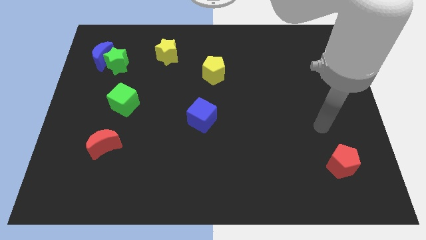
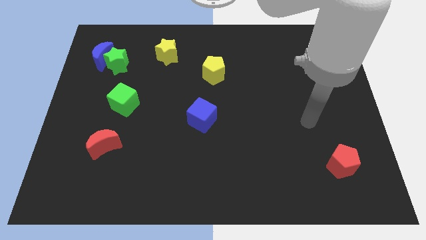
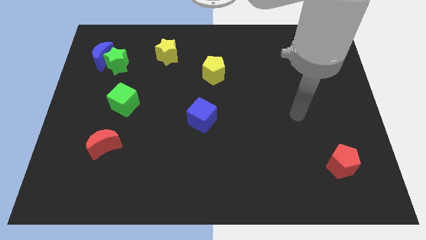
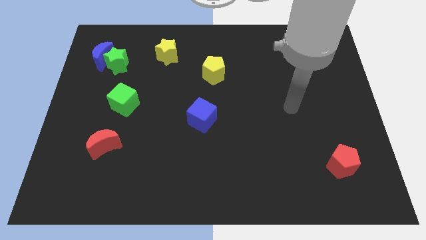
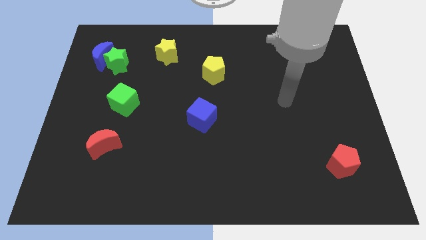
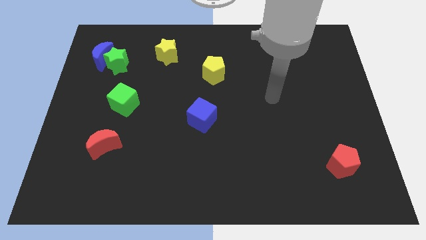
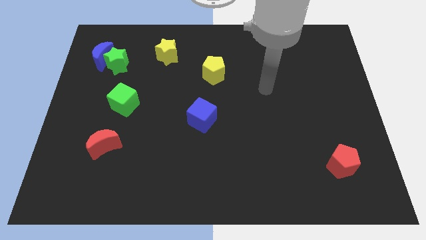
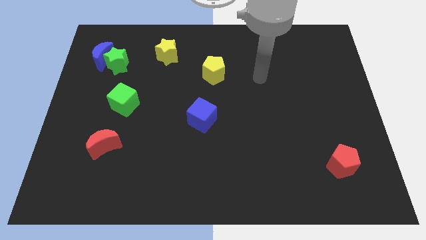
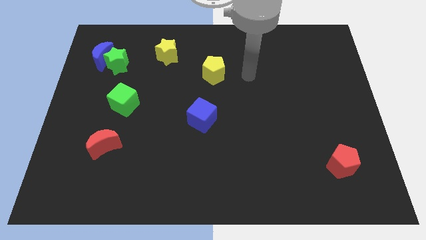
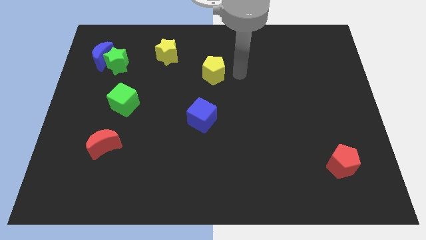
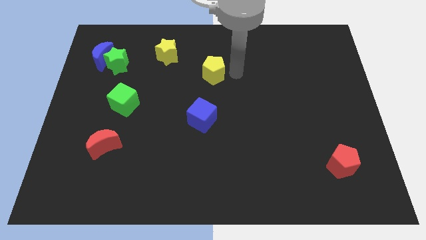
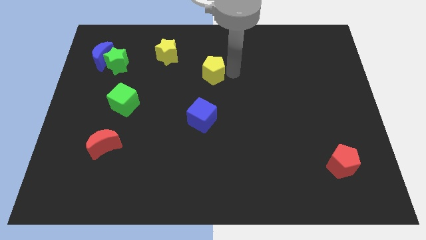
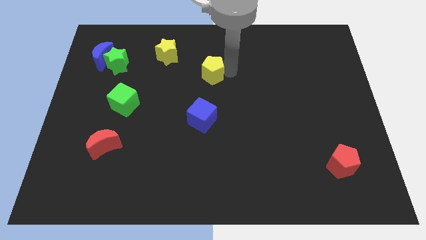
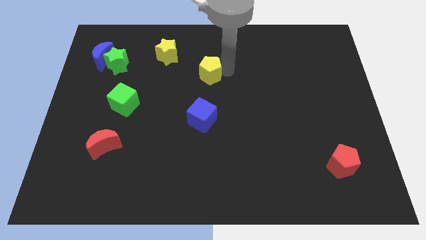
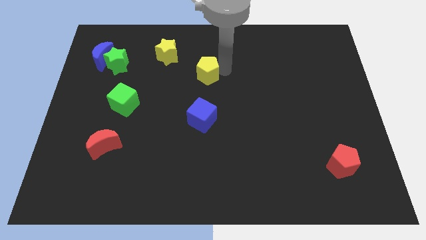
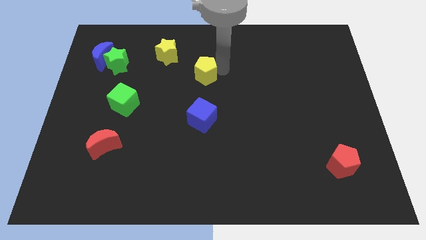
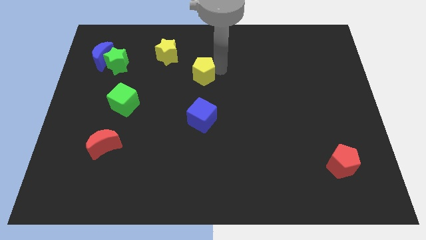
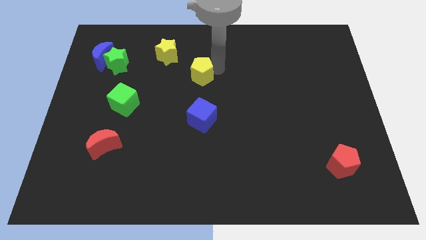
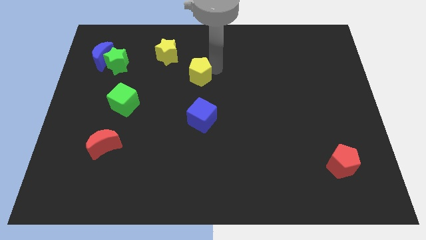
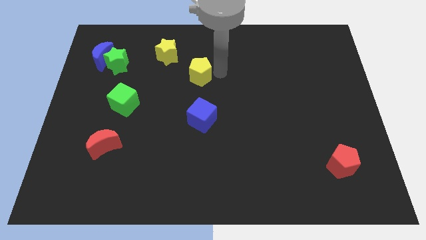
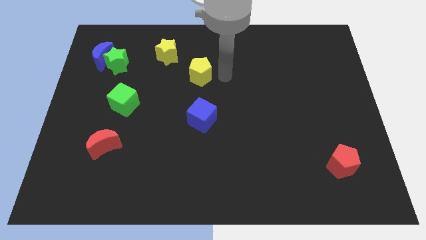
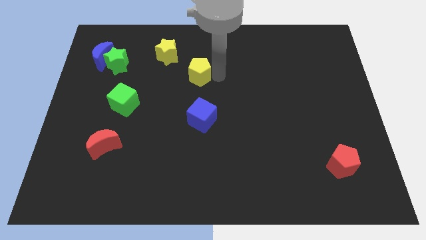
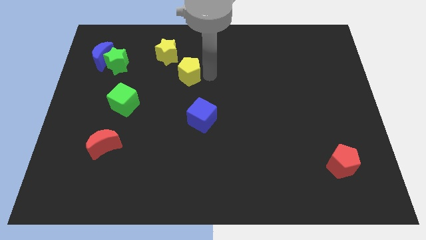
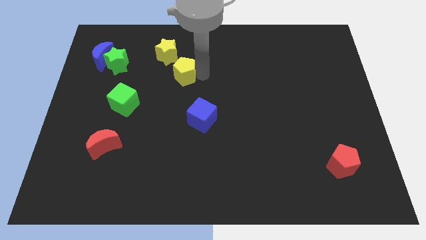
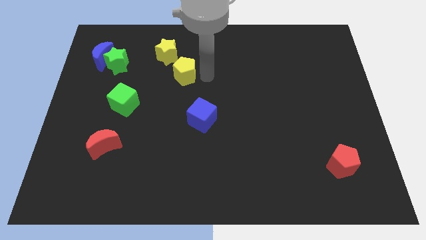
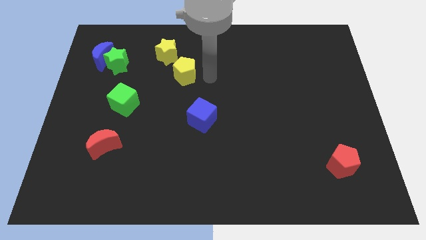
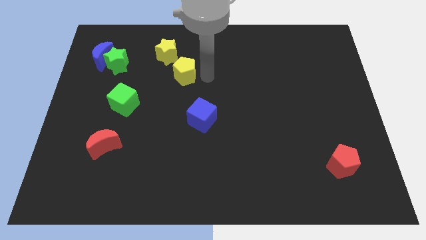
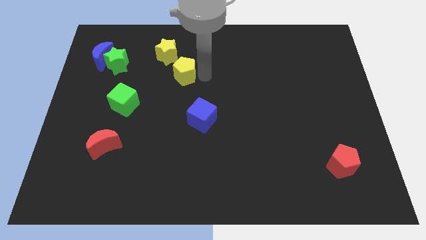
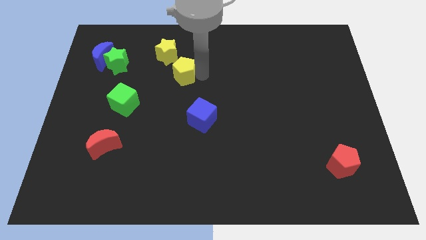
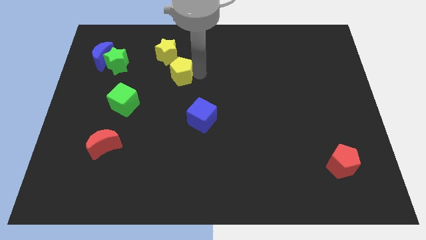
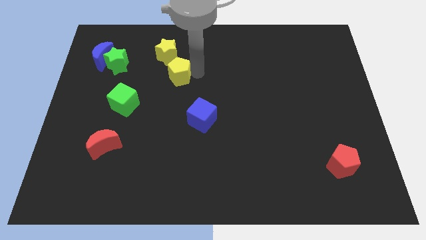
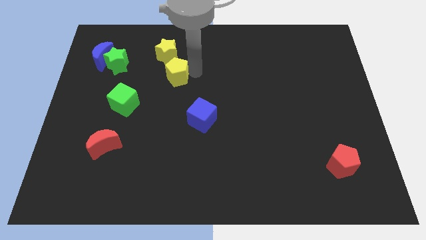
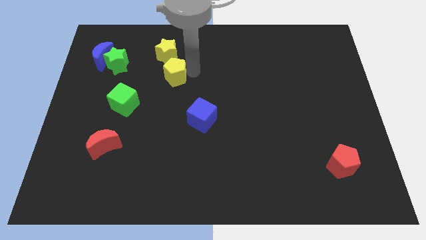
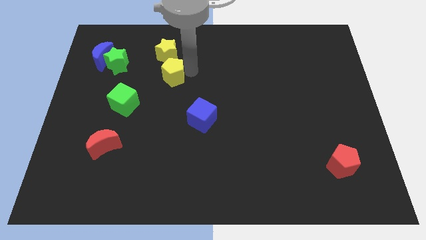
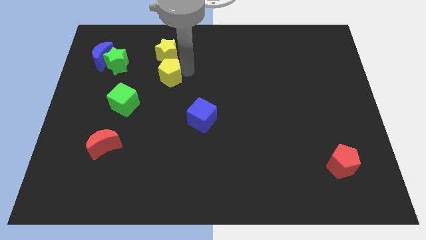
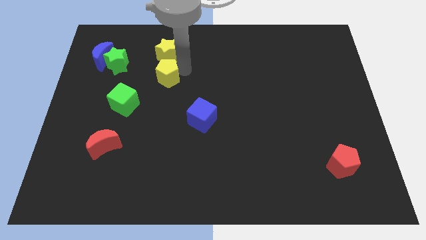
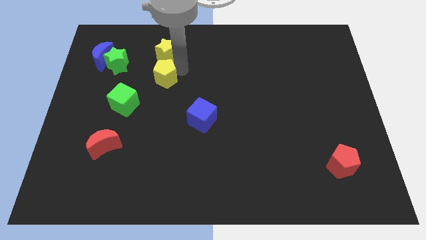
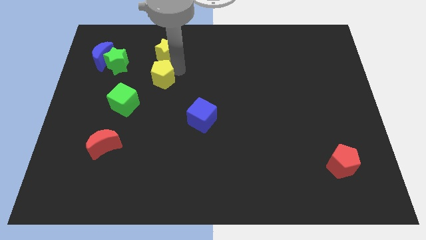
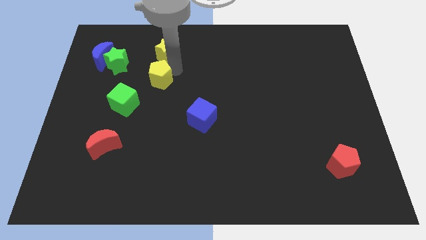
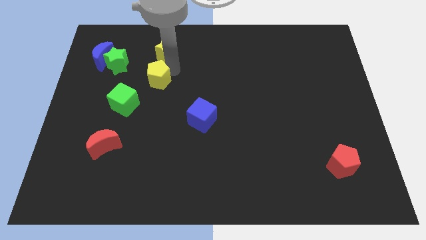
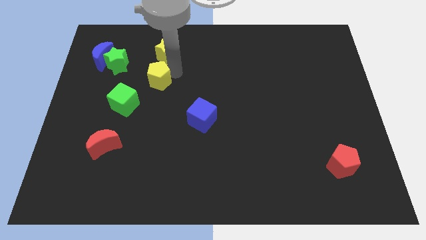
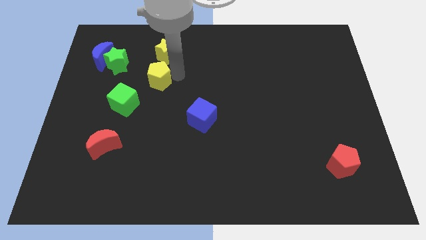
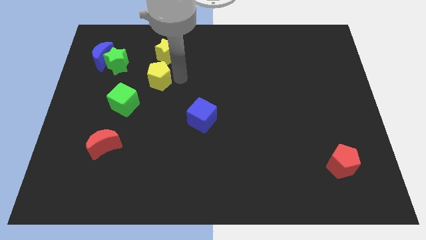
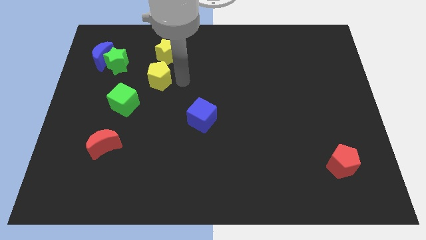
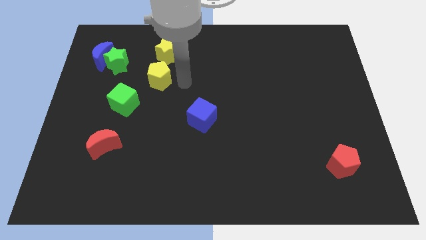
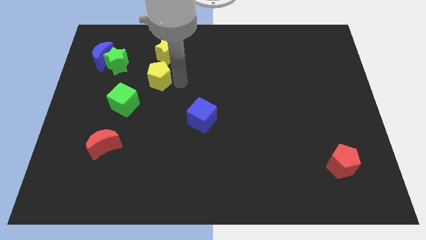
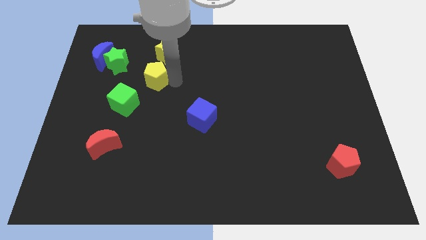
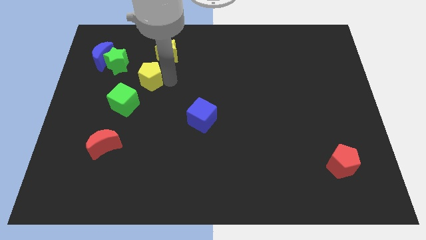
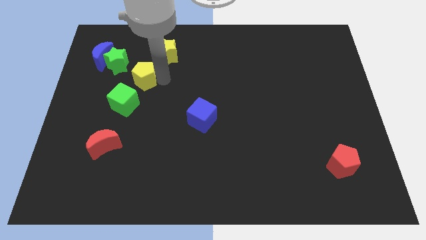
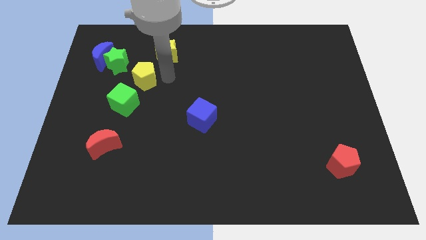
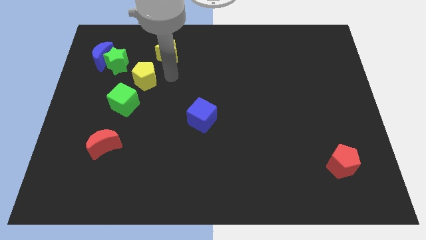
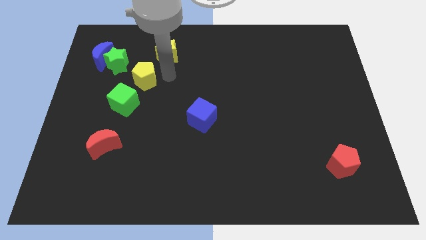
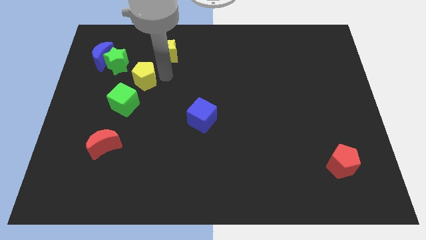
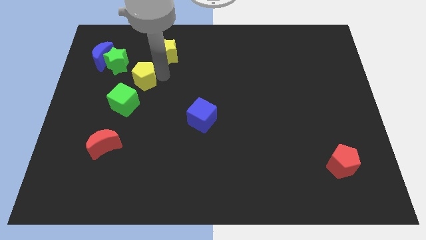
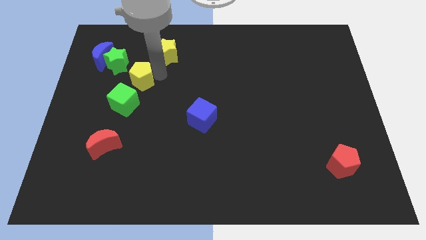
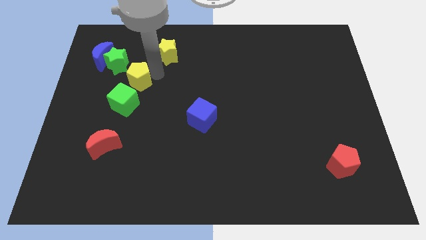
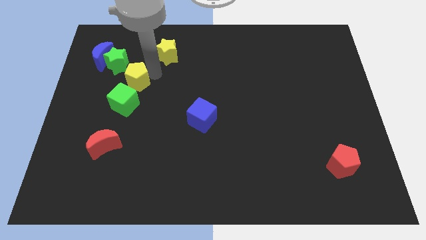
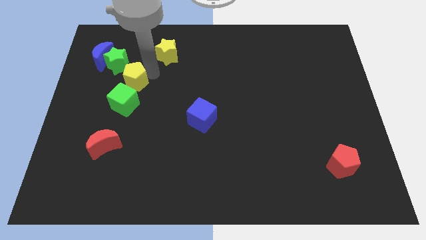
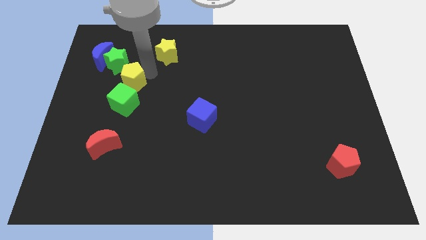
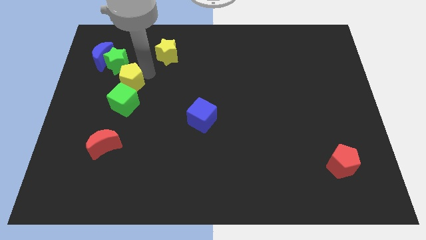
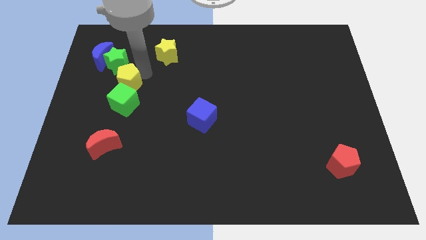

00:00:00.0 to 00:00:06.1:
put the yellow pentagon to the top left side of the green cube
